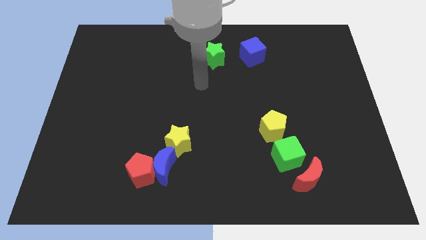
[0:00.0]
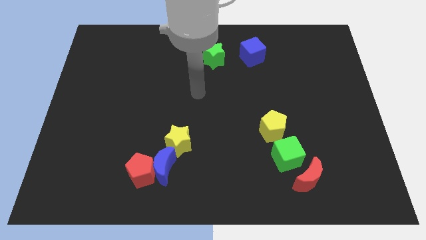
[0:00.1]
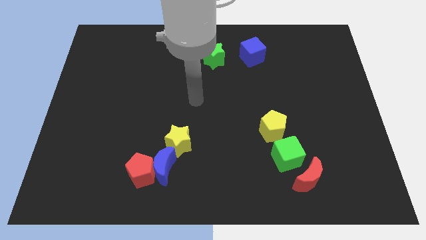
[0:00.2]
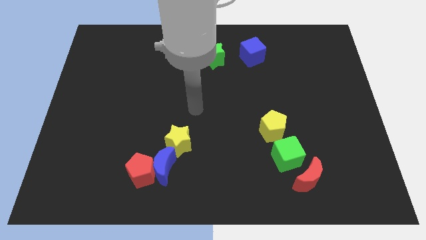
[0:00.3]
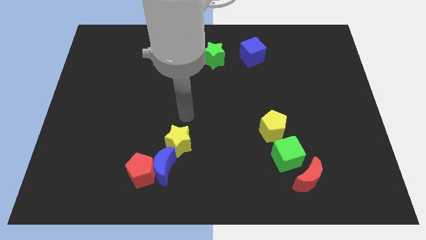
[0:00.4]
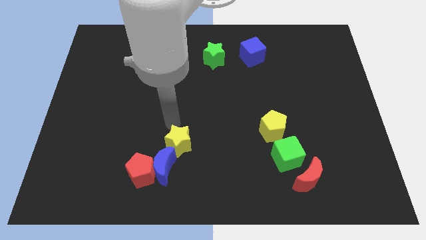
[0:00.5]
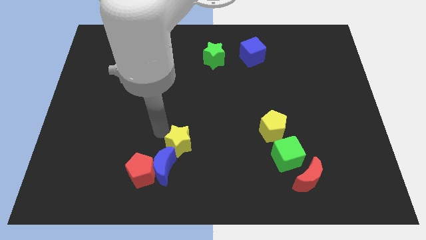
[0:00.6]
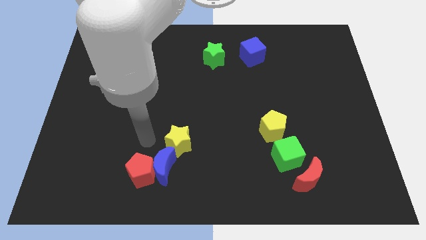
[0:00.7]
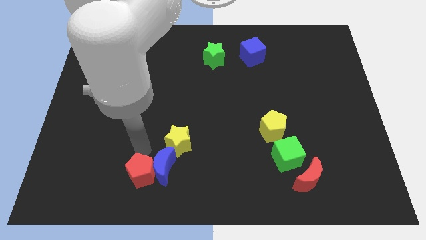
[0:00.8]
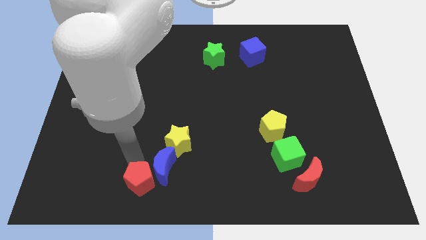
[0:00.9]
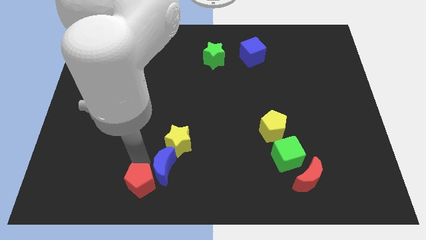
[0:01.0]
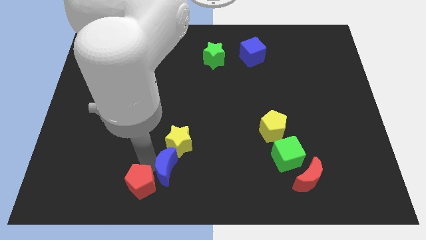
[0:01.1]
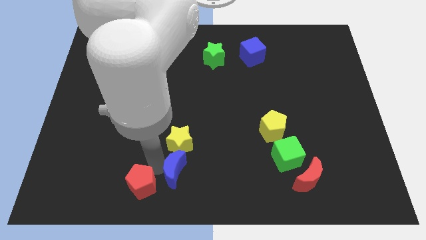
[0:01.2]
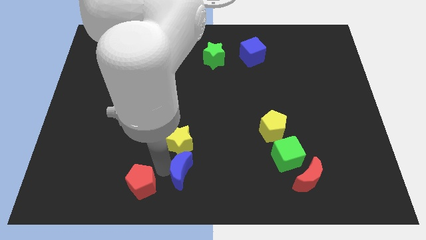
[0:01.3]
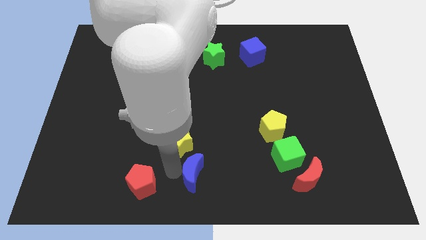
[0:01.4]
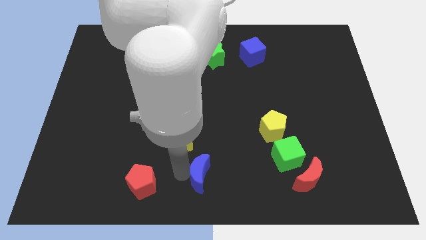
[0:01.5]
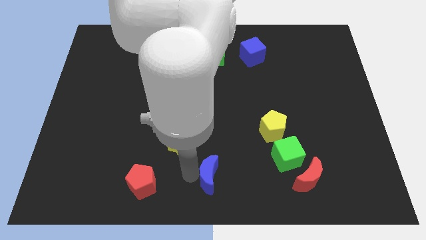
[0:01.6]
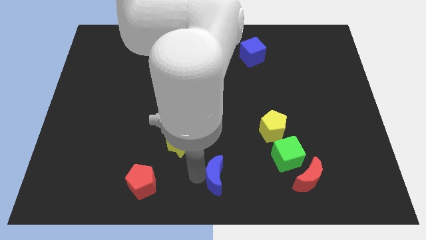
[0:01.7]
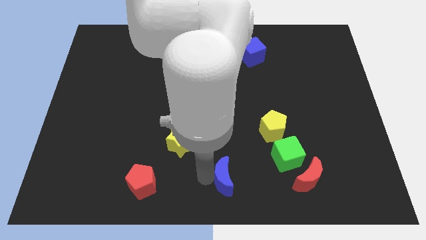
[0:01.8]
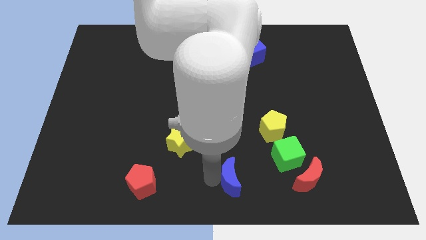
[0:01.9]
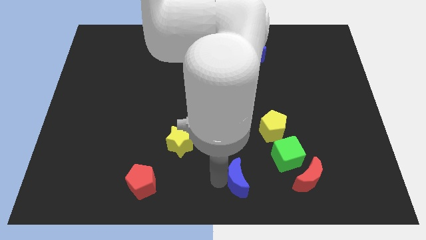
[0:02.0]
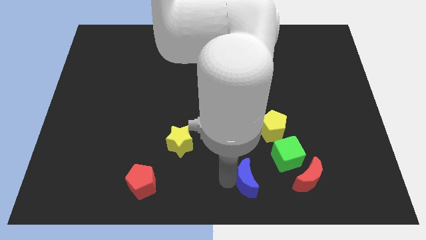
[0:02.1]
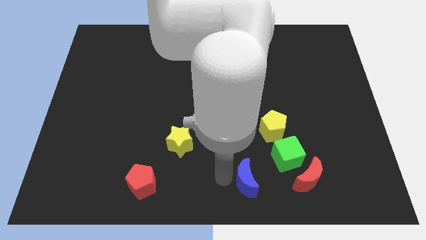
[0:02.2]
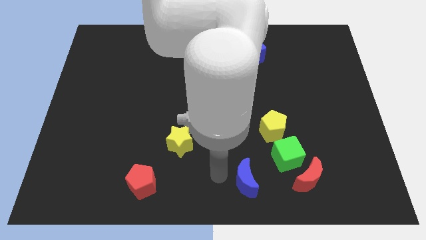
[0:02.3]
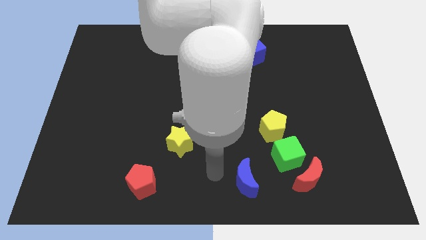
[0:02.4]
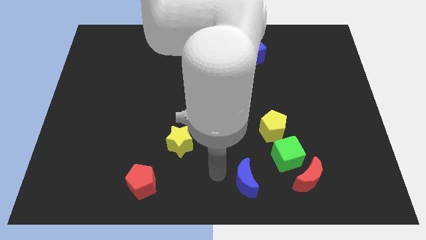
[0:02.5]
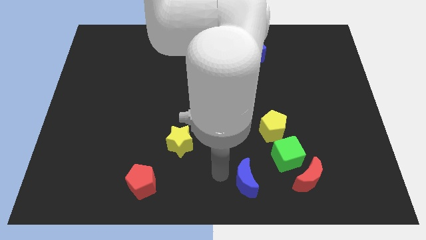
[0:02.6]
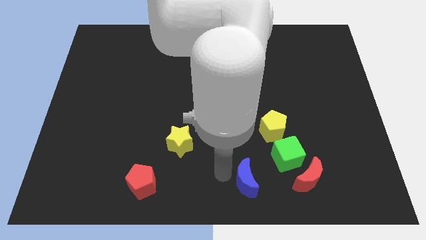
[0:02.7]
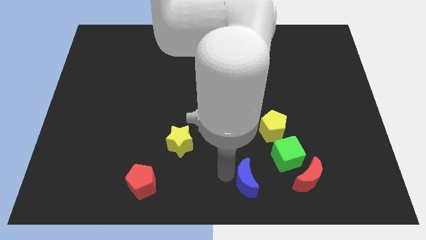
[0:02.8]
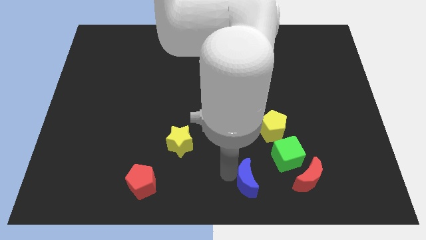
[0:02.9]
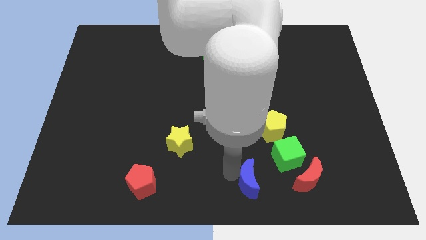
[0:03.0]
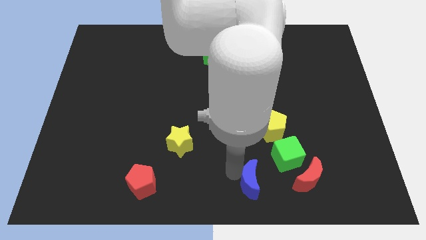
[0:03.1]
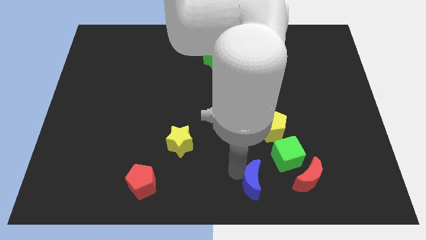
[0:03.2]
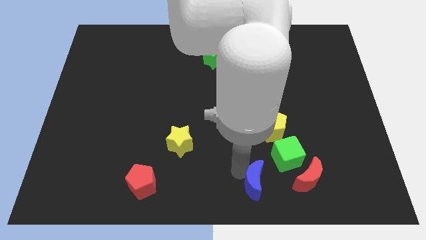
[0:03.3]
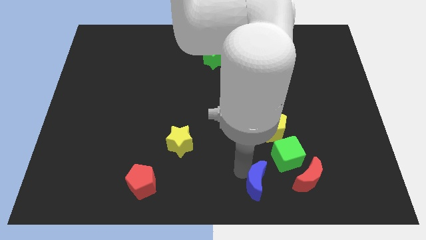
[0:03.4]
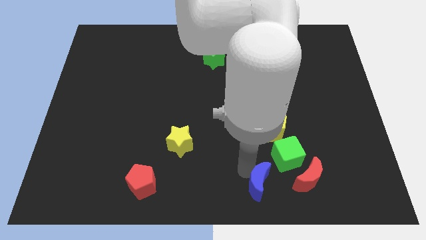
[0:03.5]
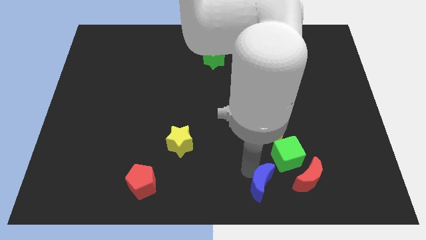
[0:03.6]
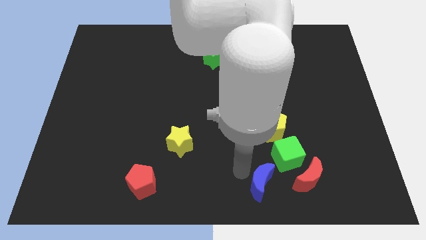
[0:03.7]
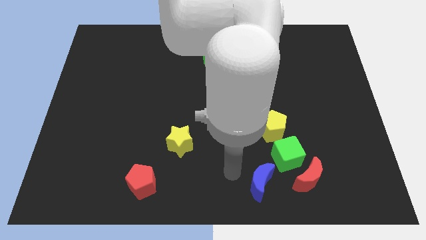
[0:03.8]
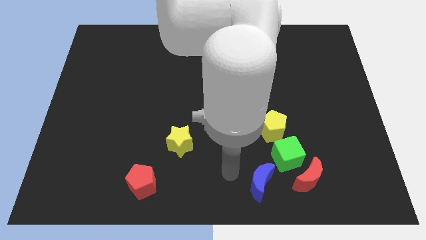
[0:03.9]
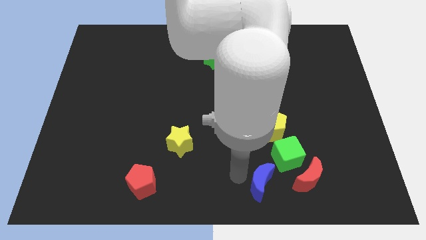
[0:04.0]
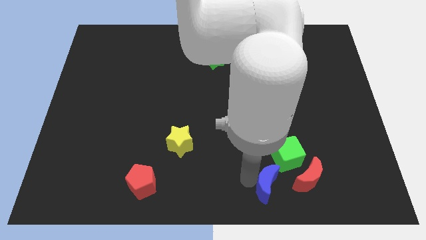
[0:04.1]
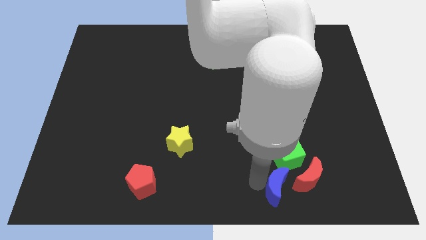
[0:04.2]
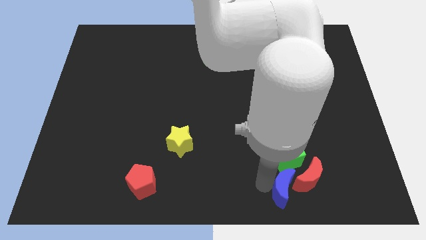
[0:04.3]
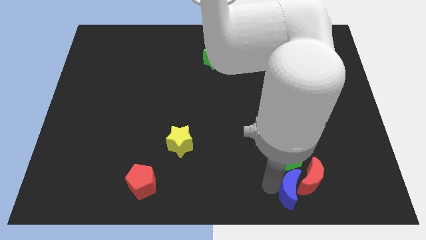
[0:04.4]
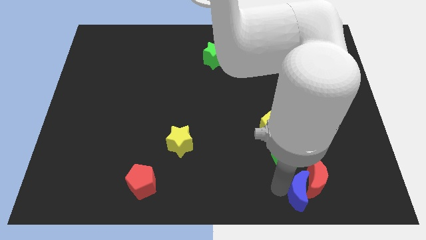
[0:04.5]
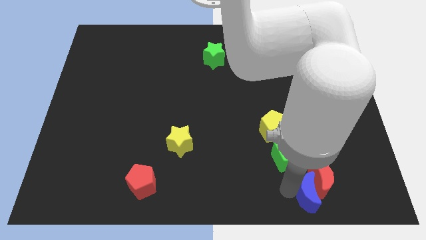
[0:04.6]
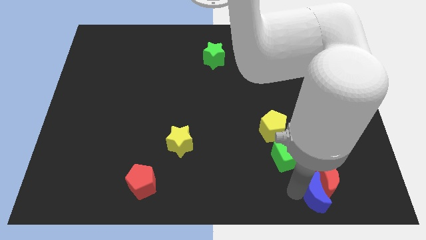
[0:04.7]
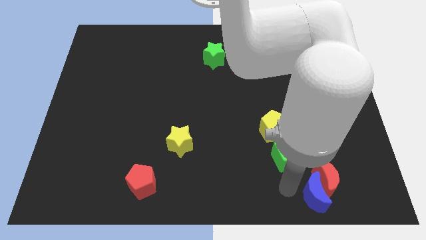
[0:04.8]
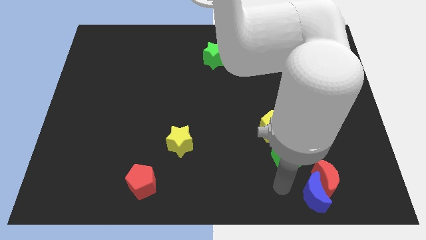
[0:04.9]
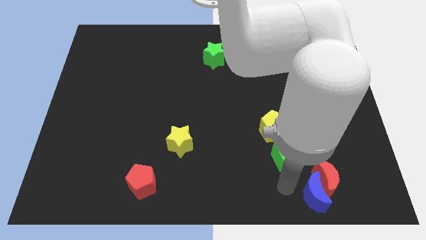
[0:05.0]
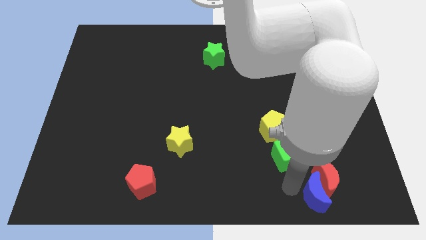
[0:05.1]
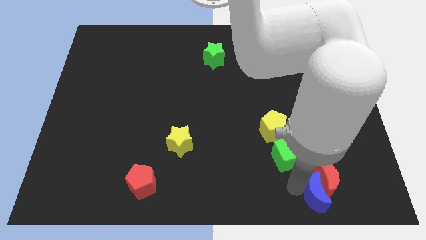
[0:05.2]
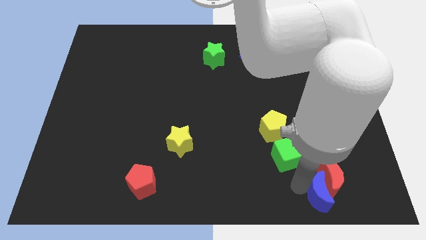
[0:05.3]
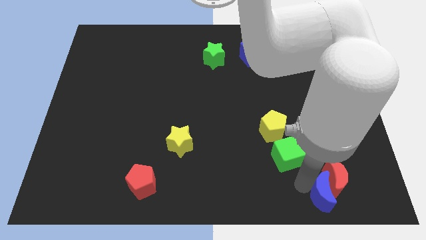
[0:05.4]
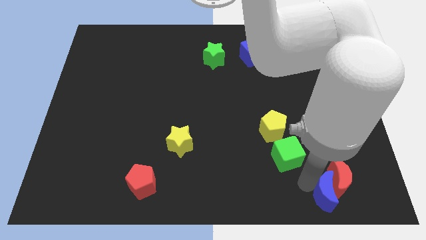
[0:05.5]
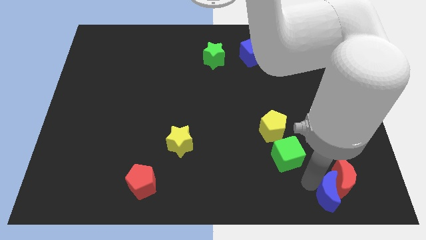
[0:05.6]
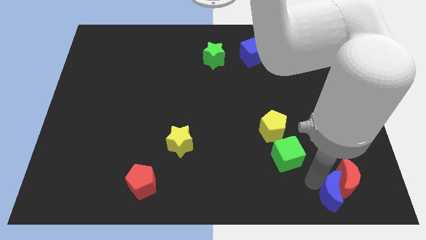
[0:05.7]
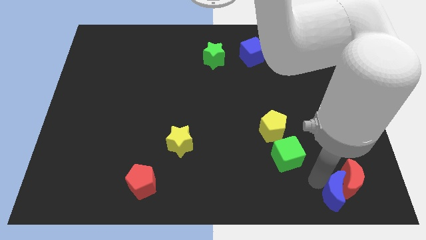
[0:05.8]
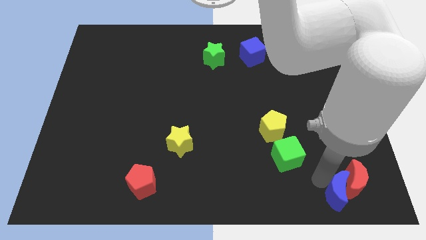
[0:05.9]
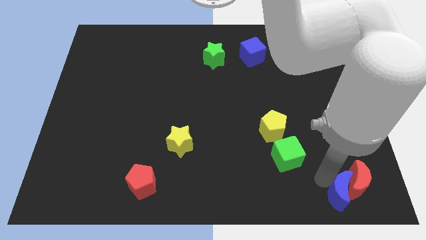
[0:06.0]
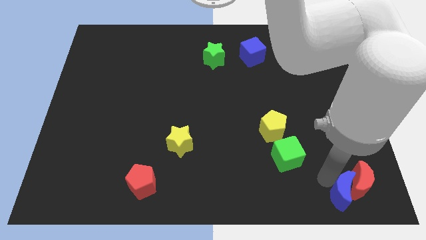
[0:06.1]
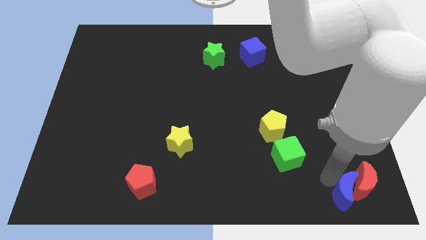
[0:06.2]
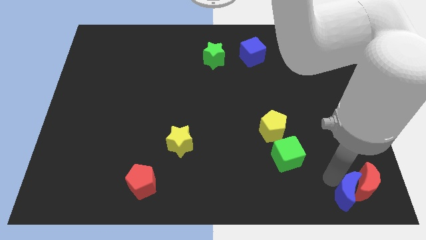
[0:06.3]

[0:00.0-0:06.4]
push the blue moon to the bottom right corner

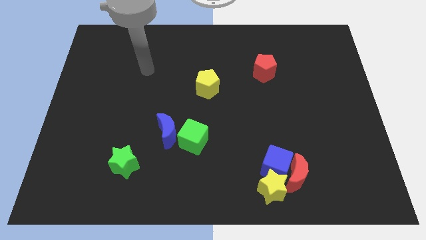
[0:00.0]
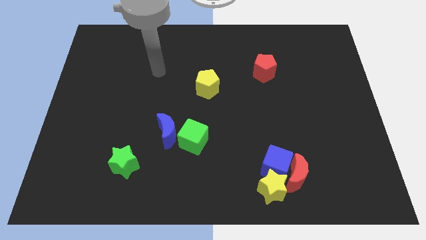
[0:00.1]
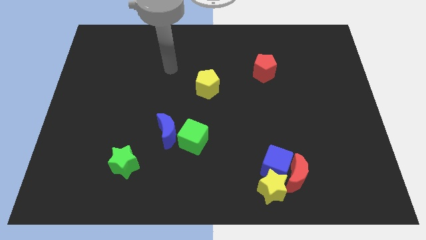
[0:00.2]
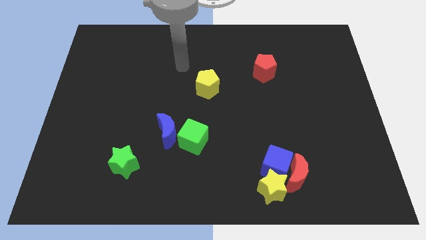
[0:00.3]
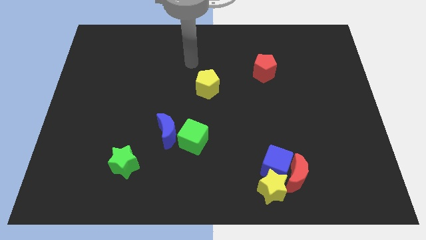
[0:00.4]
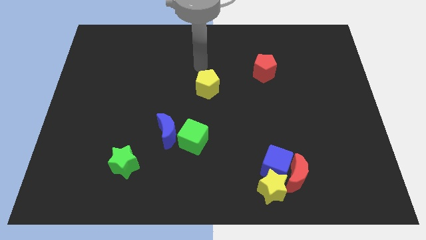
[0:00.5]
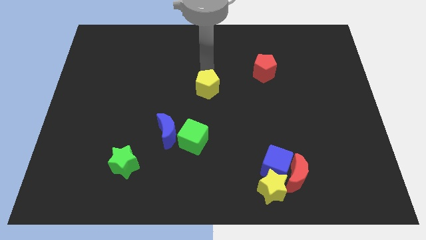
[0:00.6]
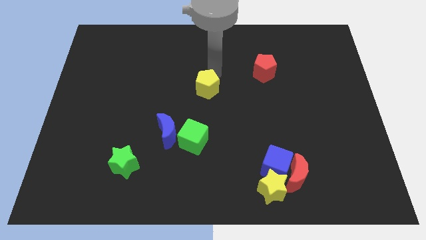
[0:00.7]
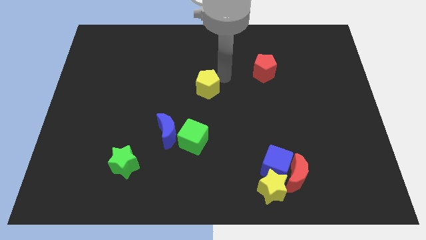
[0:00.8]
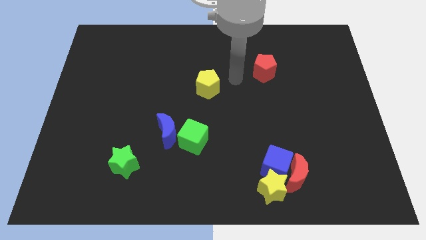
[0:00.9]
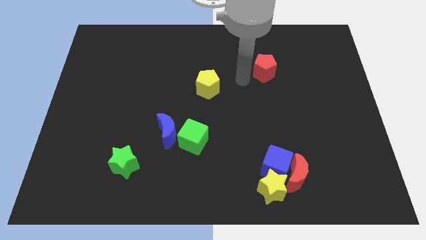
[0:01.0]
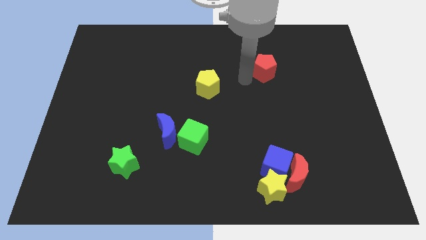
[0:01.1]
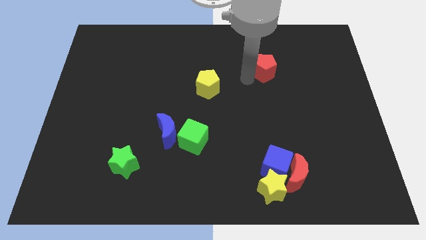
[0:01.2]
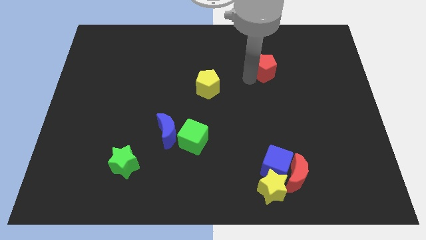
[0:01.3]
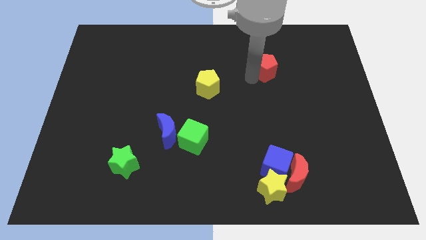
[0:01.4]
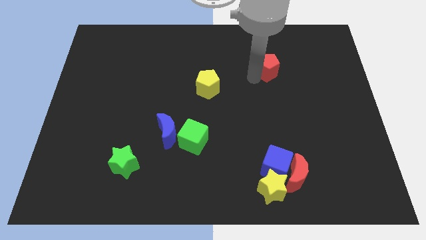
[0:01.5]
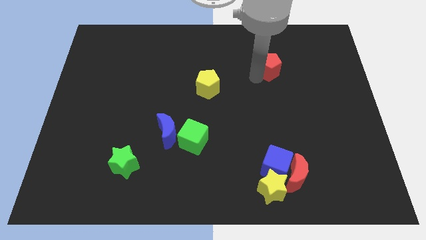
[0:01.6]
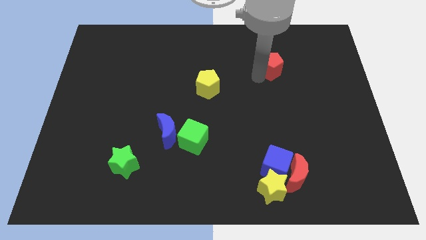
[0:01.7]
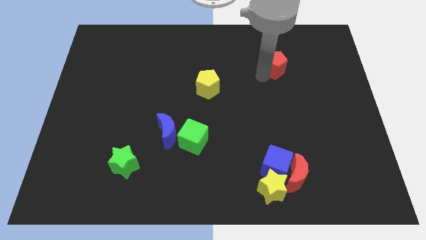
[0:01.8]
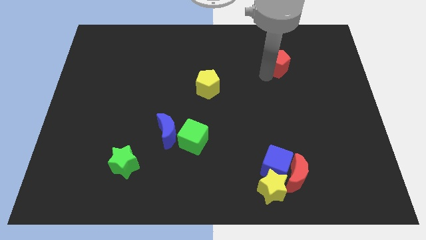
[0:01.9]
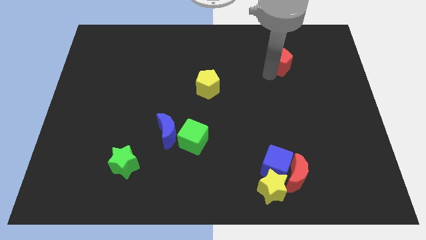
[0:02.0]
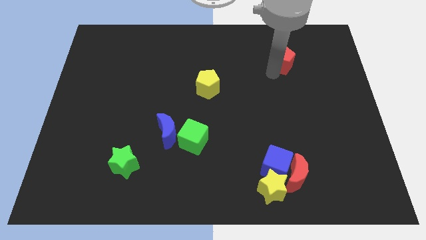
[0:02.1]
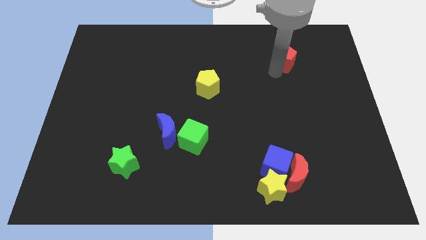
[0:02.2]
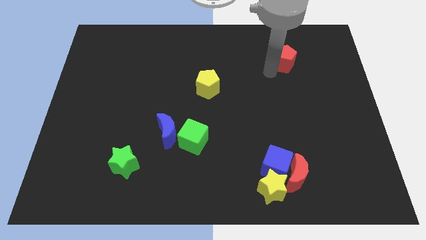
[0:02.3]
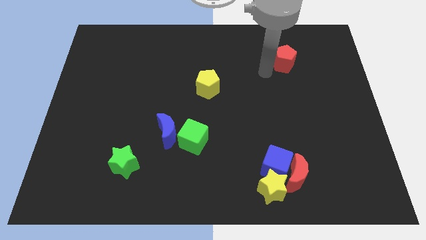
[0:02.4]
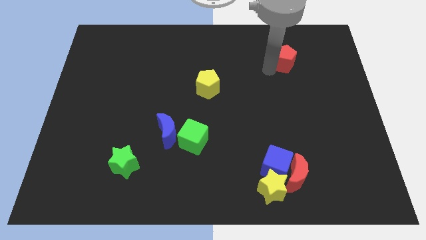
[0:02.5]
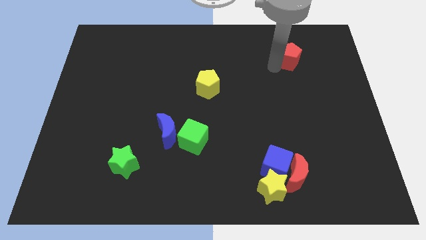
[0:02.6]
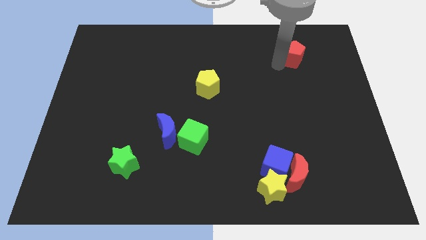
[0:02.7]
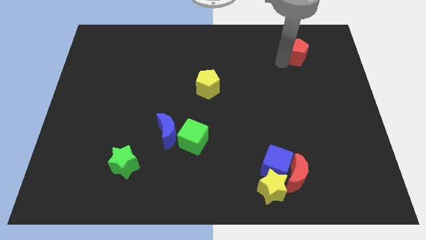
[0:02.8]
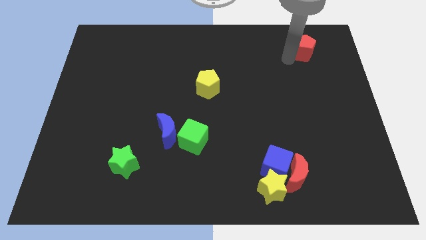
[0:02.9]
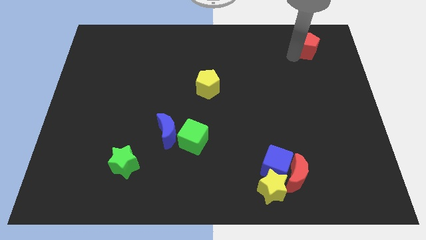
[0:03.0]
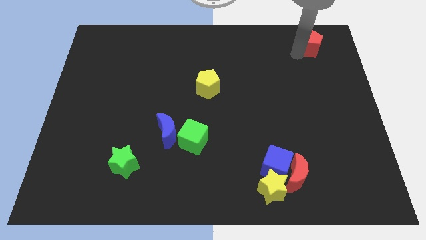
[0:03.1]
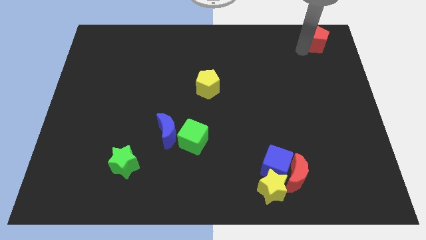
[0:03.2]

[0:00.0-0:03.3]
slide the red pentagon to the top right of the board
